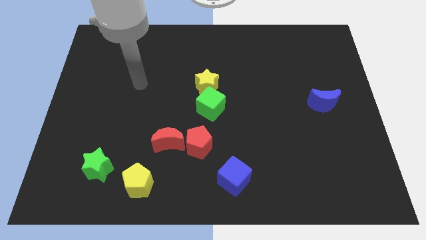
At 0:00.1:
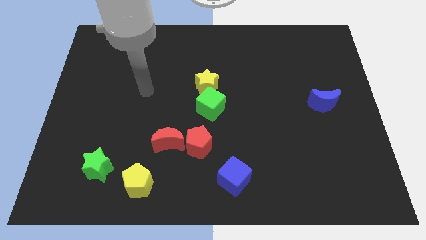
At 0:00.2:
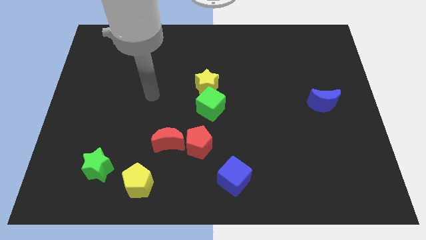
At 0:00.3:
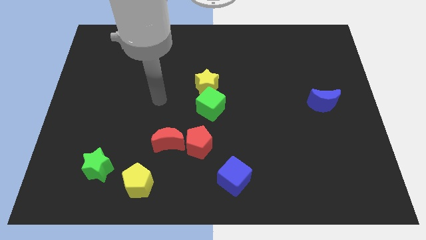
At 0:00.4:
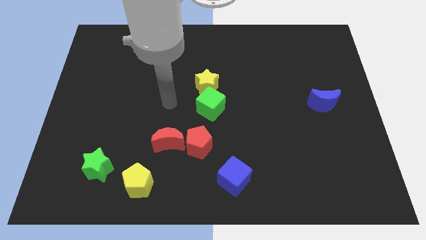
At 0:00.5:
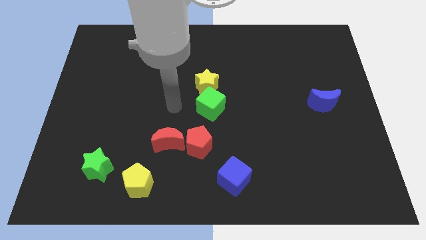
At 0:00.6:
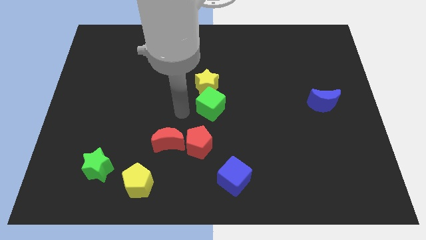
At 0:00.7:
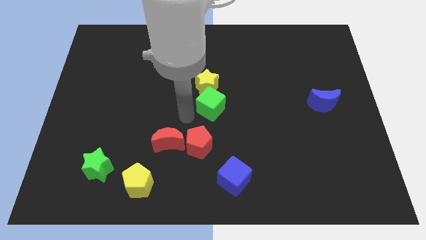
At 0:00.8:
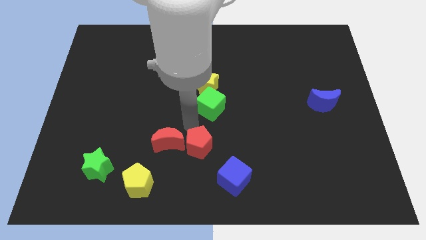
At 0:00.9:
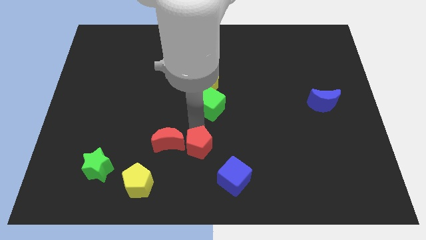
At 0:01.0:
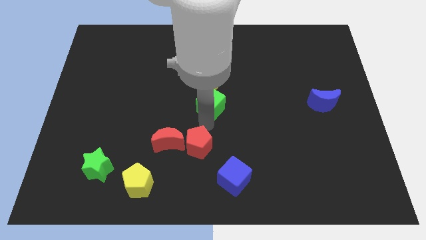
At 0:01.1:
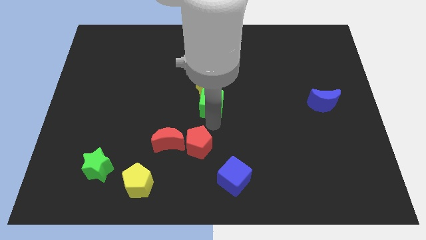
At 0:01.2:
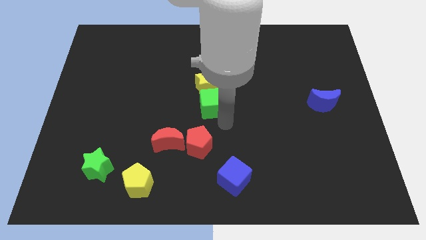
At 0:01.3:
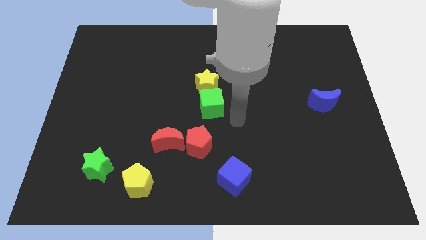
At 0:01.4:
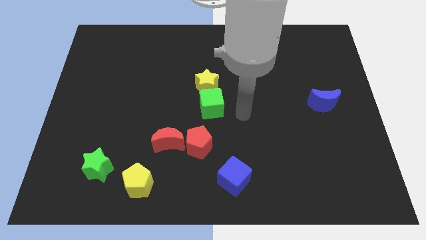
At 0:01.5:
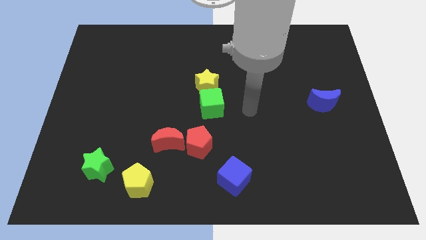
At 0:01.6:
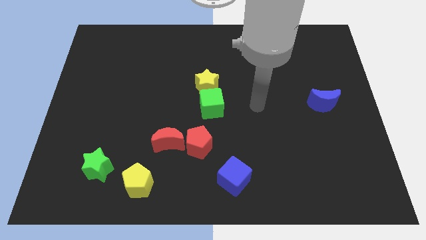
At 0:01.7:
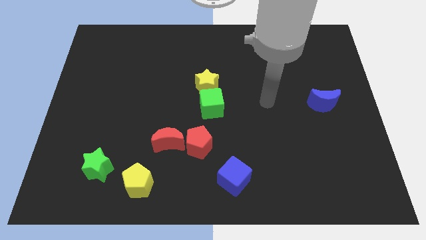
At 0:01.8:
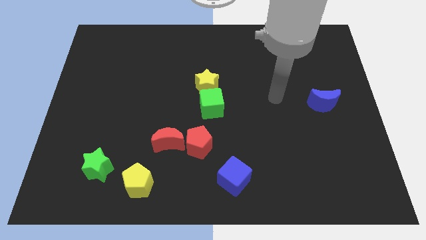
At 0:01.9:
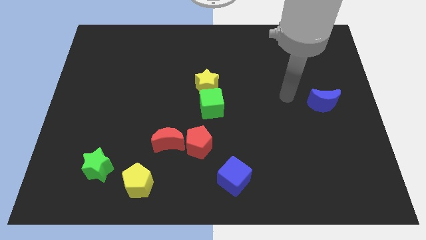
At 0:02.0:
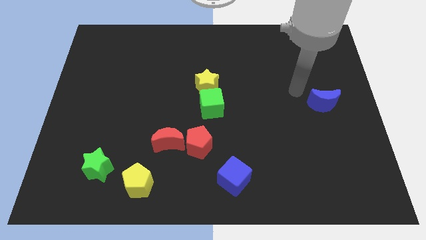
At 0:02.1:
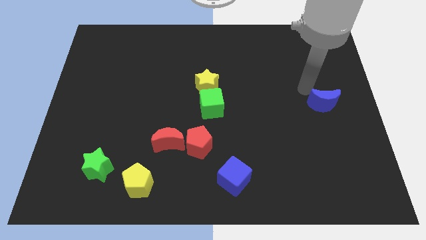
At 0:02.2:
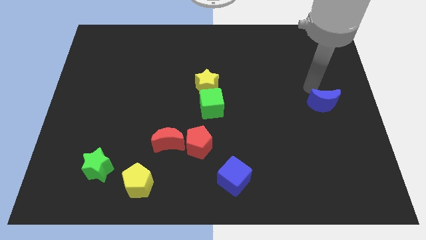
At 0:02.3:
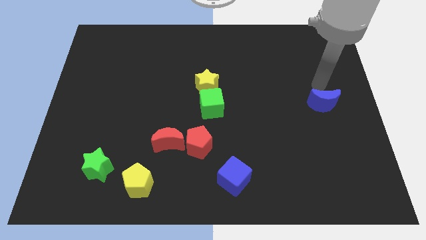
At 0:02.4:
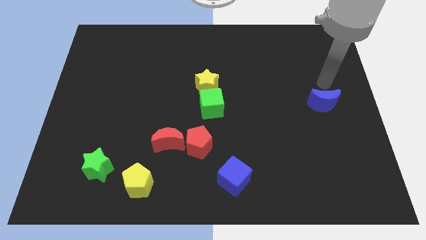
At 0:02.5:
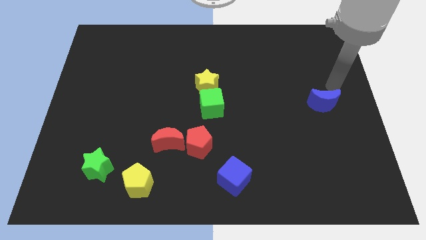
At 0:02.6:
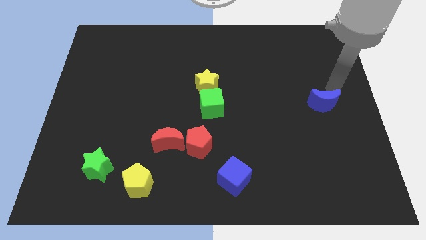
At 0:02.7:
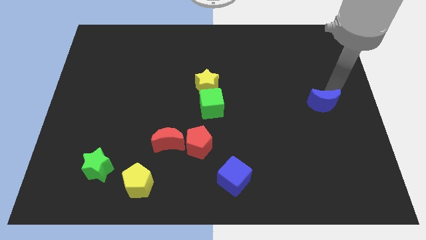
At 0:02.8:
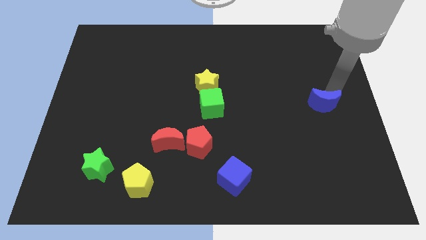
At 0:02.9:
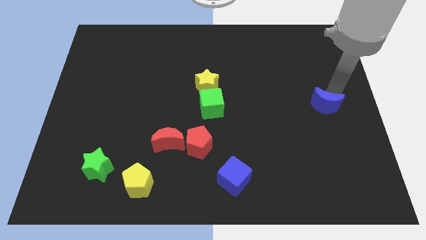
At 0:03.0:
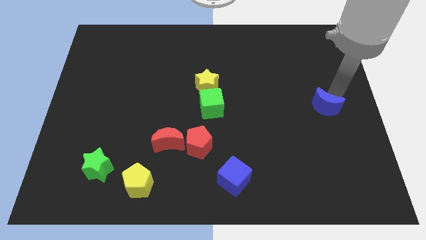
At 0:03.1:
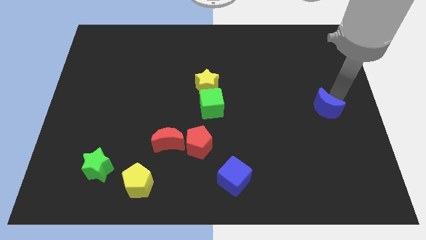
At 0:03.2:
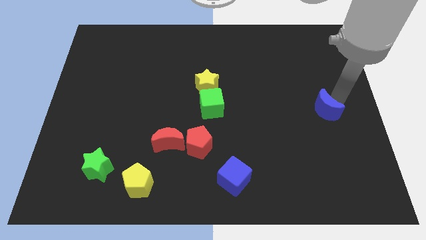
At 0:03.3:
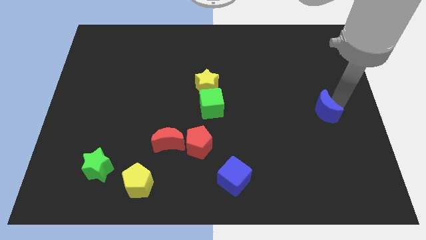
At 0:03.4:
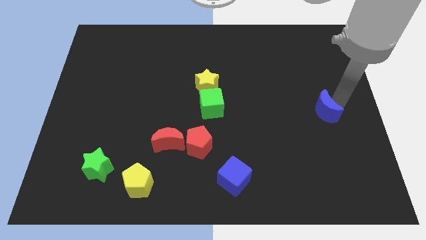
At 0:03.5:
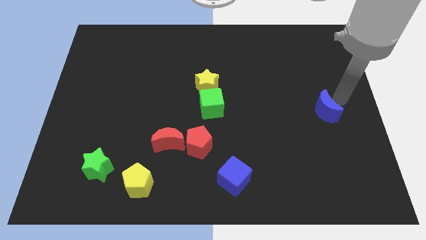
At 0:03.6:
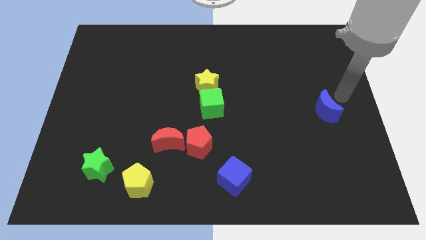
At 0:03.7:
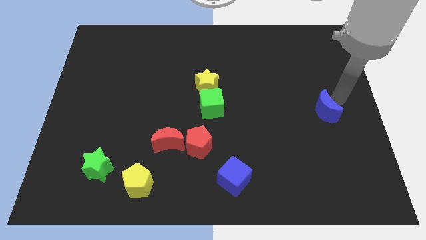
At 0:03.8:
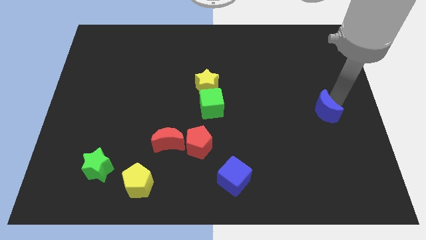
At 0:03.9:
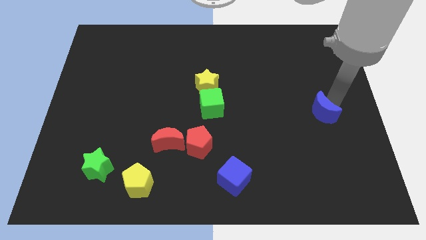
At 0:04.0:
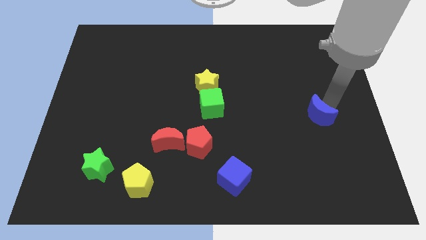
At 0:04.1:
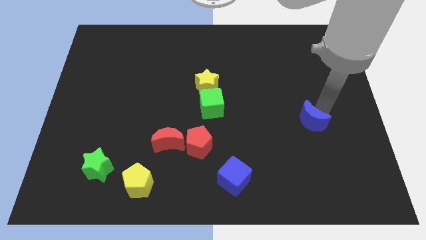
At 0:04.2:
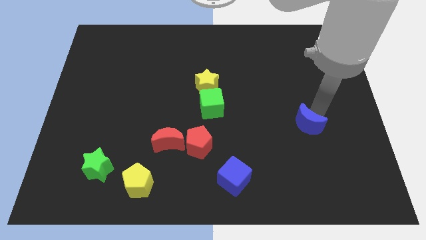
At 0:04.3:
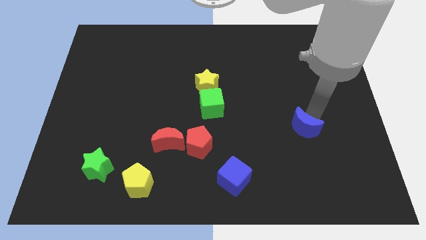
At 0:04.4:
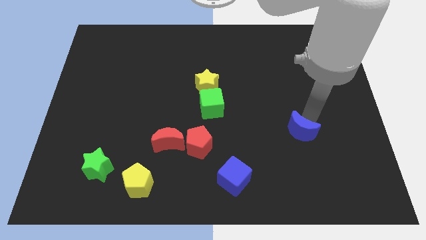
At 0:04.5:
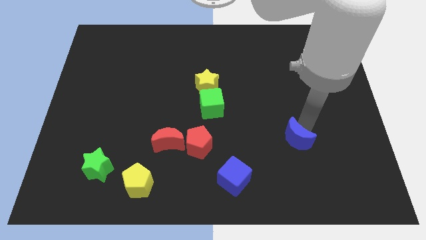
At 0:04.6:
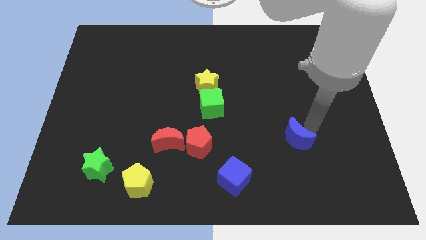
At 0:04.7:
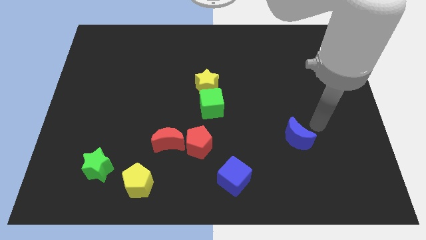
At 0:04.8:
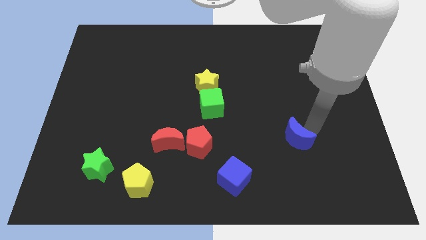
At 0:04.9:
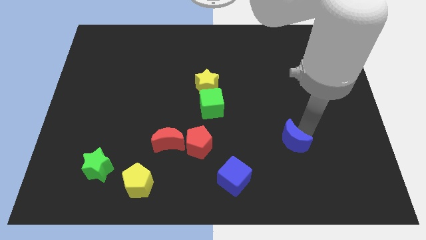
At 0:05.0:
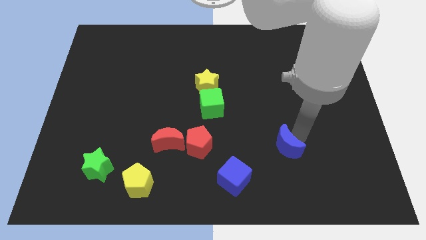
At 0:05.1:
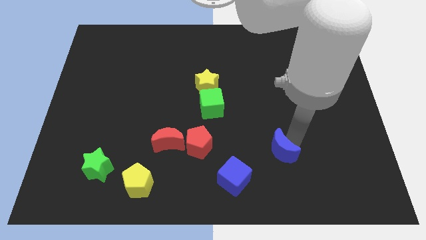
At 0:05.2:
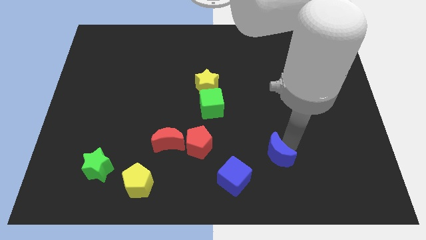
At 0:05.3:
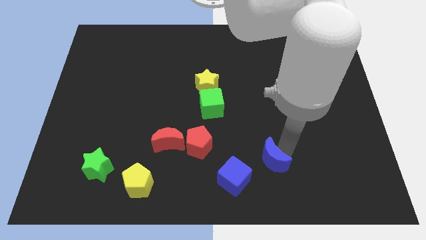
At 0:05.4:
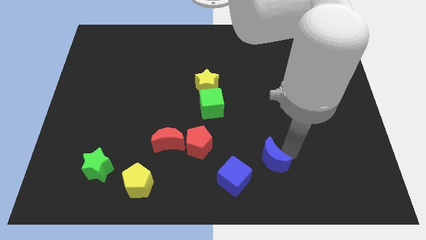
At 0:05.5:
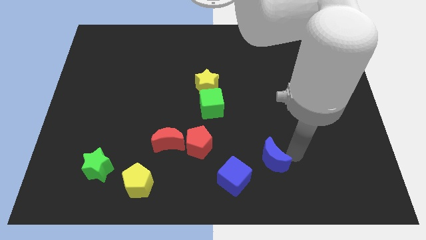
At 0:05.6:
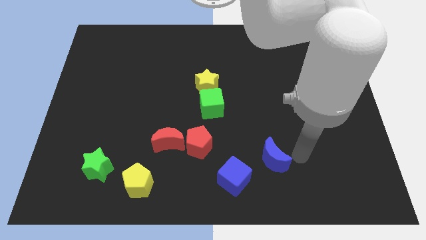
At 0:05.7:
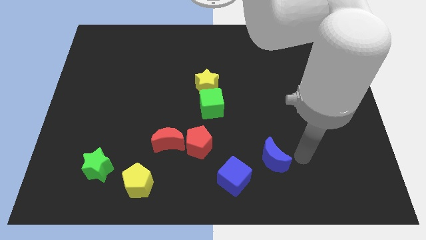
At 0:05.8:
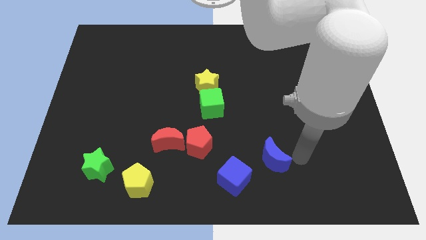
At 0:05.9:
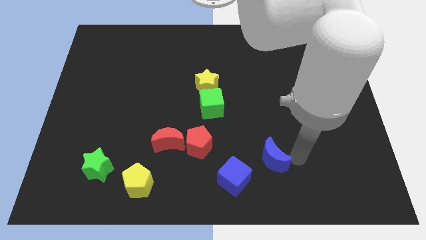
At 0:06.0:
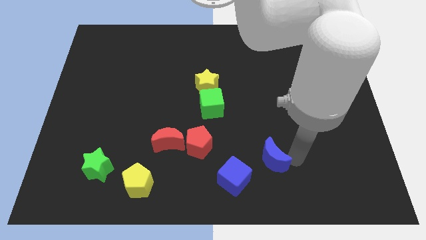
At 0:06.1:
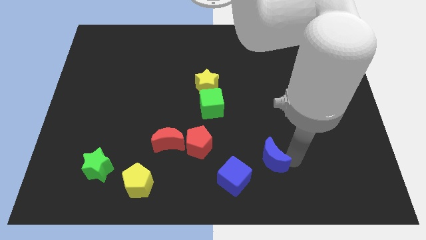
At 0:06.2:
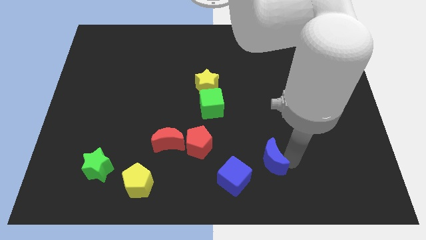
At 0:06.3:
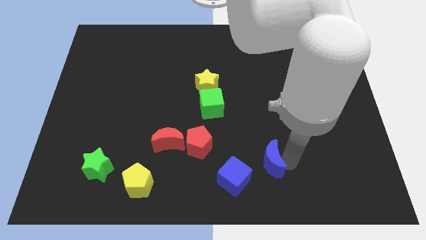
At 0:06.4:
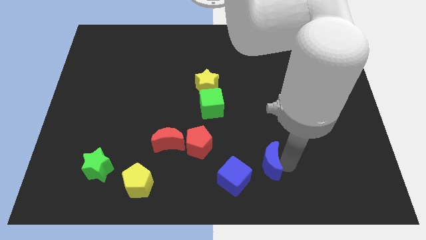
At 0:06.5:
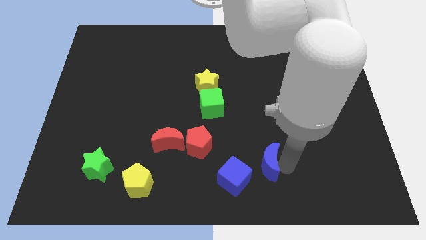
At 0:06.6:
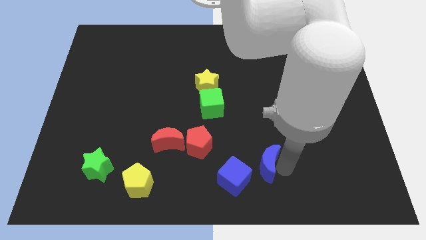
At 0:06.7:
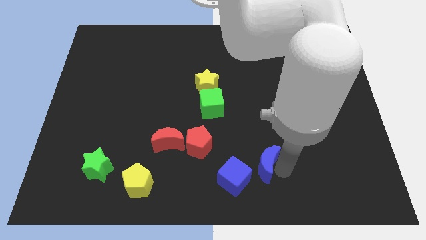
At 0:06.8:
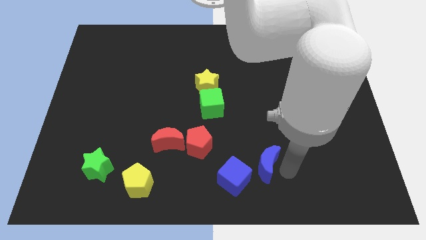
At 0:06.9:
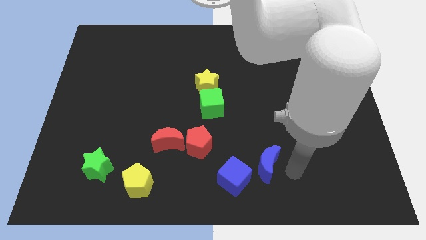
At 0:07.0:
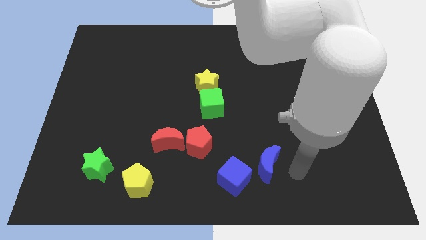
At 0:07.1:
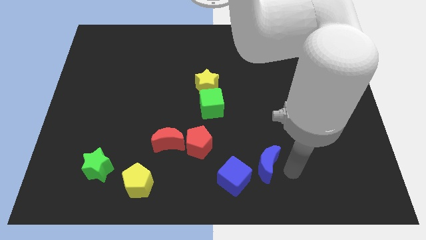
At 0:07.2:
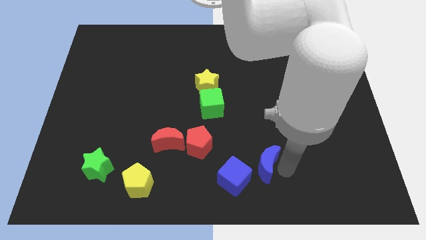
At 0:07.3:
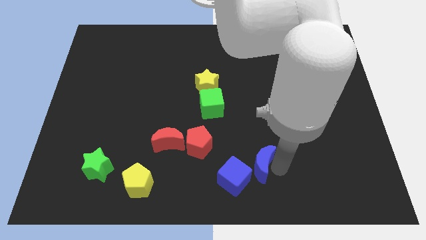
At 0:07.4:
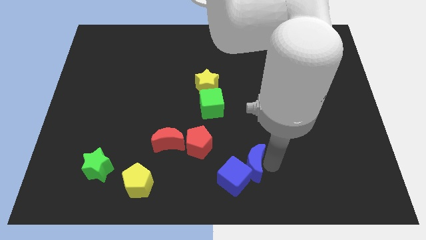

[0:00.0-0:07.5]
move the blue moon towards the blue cube
